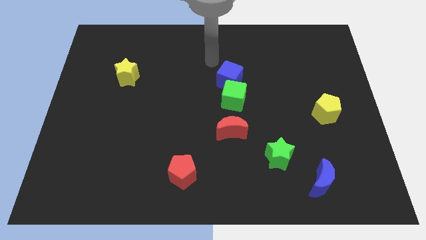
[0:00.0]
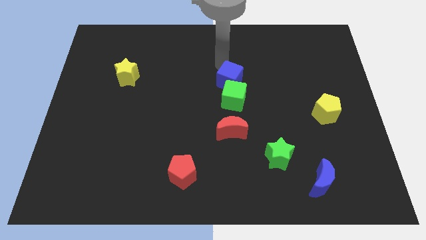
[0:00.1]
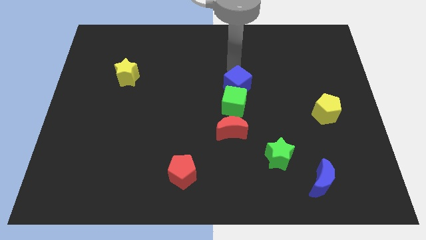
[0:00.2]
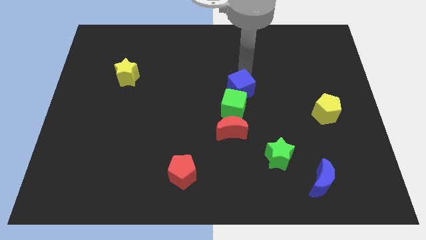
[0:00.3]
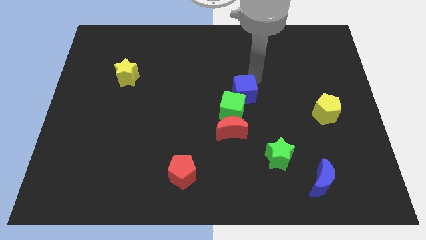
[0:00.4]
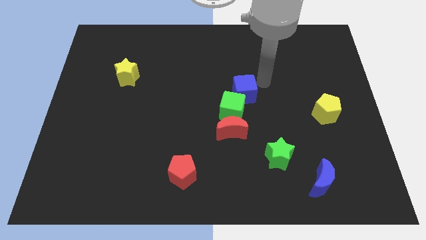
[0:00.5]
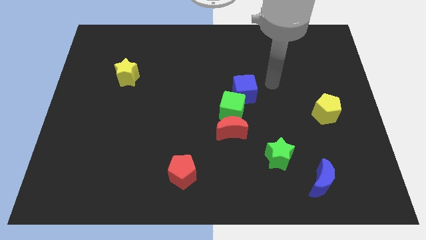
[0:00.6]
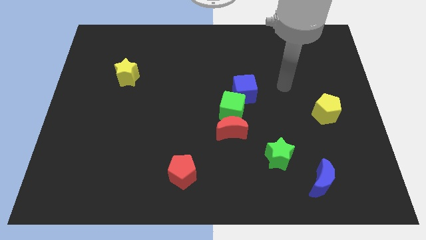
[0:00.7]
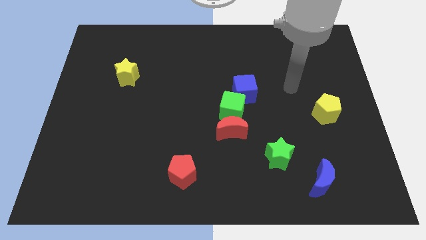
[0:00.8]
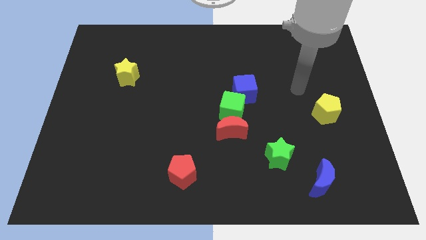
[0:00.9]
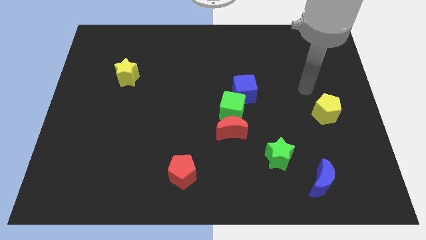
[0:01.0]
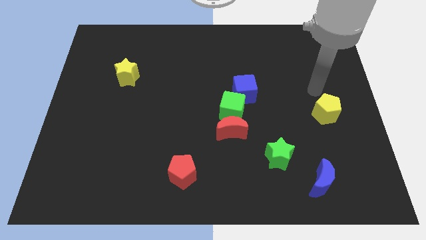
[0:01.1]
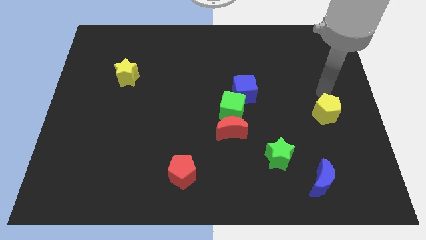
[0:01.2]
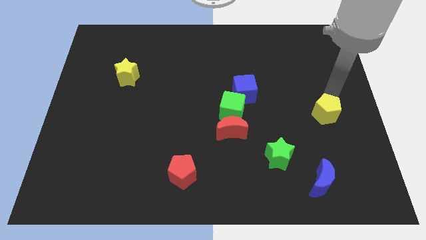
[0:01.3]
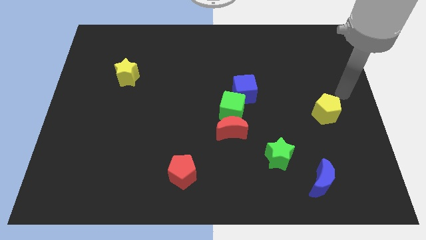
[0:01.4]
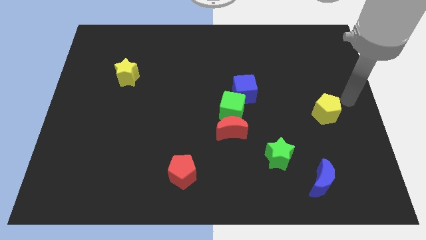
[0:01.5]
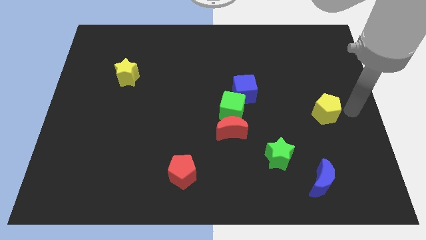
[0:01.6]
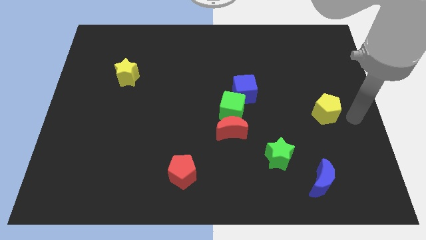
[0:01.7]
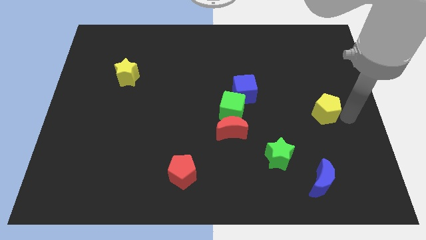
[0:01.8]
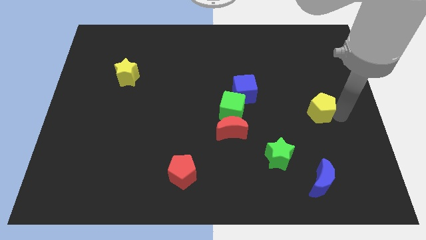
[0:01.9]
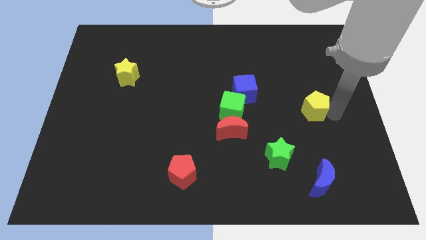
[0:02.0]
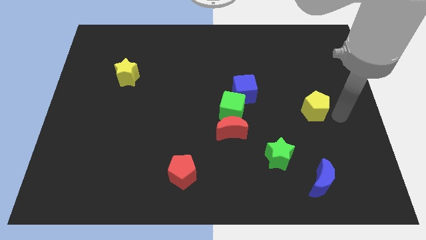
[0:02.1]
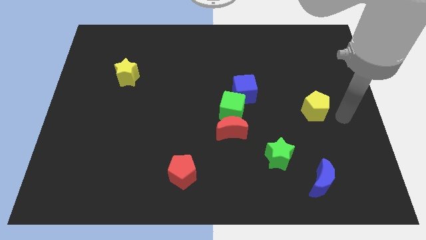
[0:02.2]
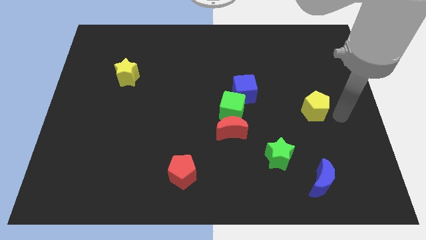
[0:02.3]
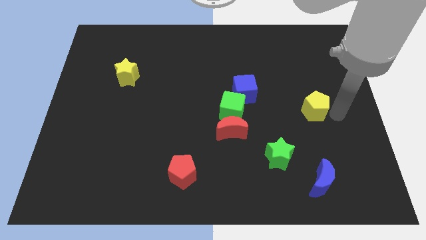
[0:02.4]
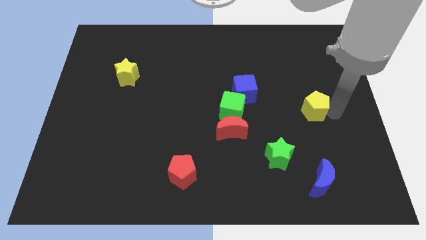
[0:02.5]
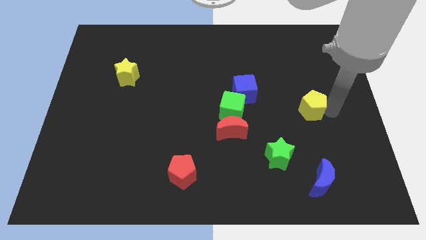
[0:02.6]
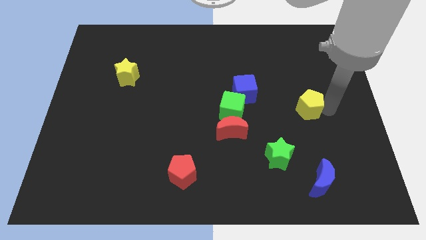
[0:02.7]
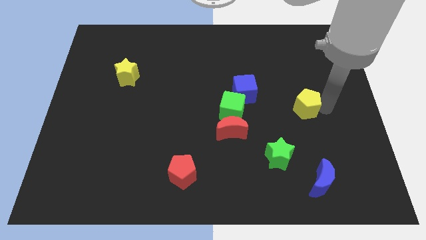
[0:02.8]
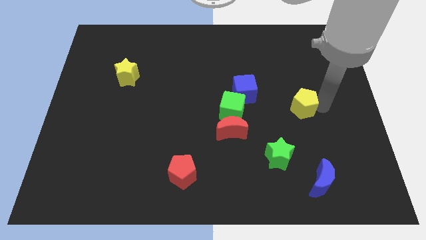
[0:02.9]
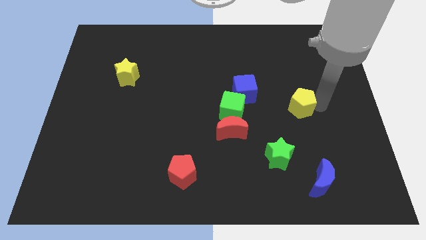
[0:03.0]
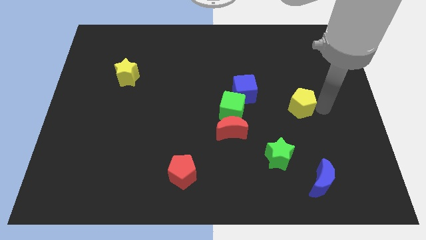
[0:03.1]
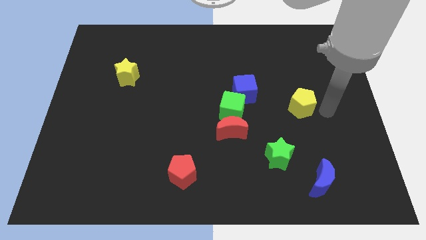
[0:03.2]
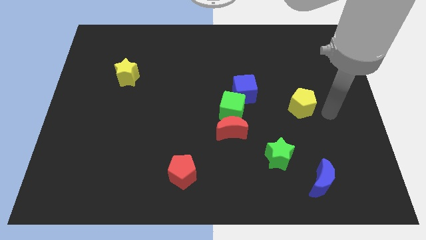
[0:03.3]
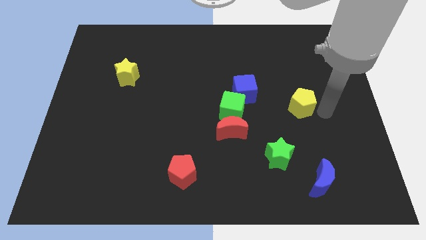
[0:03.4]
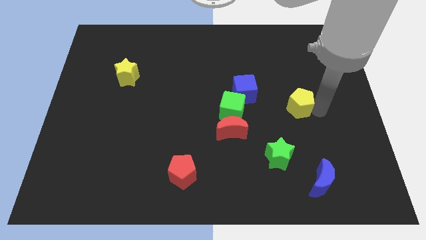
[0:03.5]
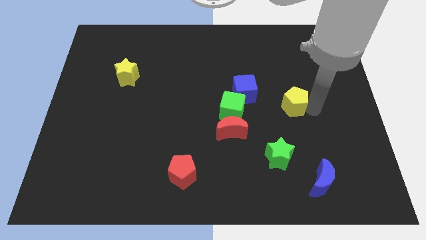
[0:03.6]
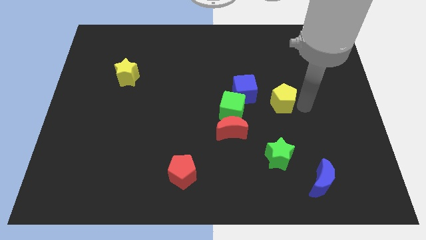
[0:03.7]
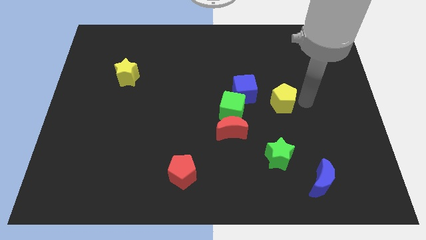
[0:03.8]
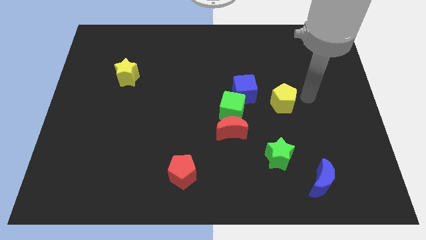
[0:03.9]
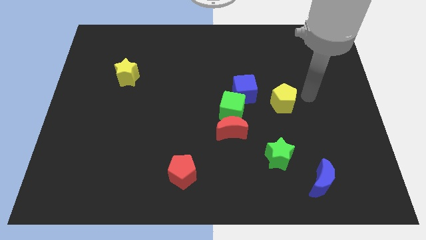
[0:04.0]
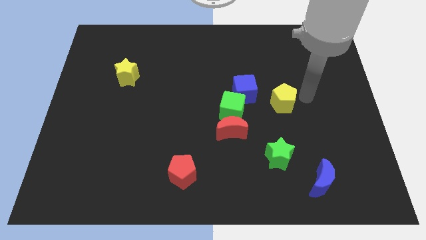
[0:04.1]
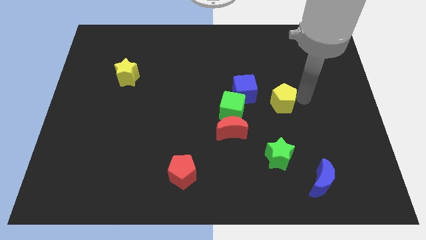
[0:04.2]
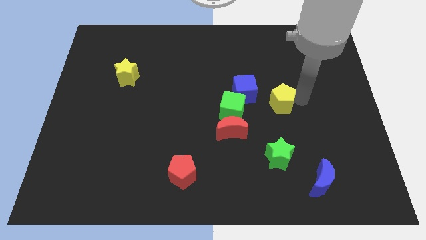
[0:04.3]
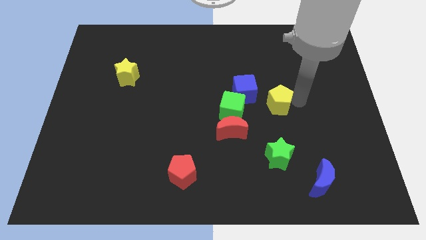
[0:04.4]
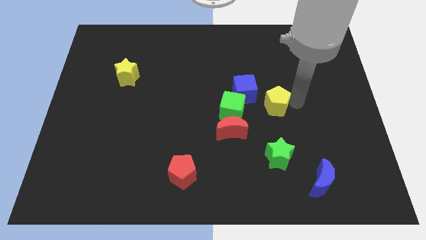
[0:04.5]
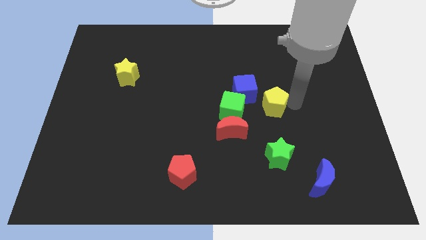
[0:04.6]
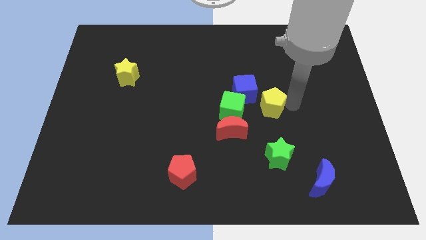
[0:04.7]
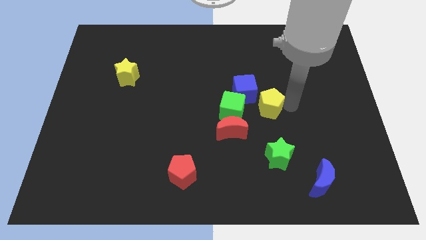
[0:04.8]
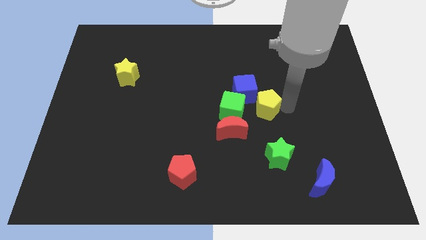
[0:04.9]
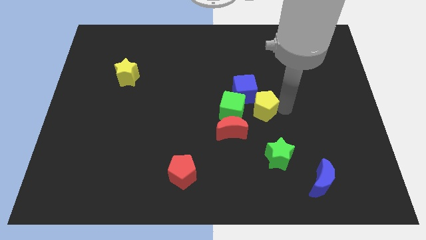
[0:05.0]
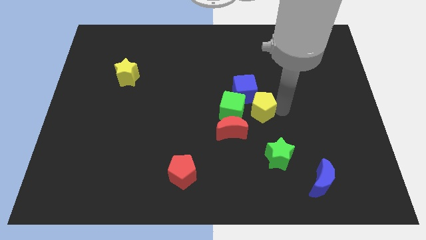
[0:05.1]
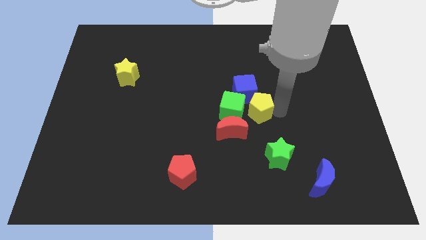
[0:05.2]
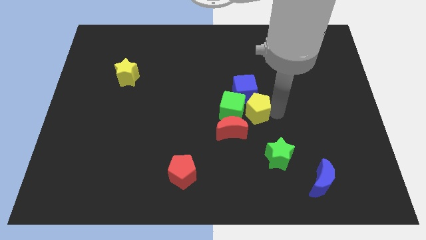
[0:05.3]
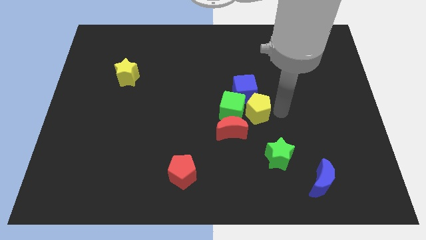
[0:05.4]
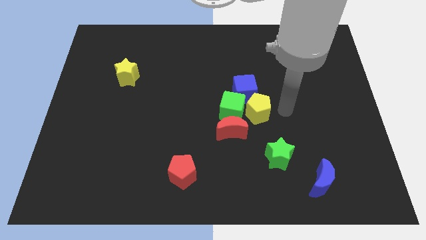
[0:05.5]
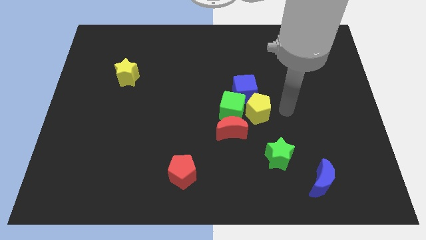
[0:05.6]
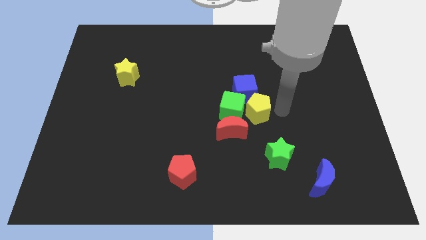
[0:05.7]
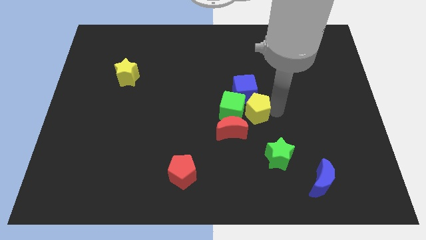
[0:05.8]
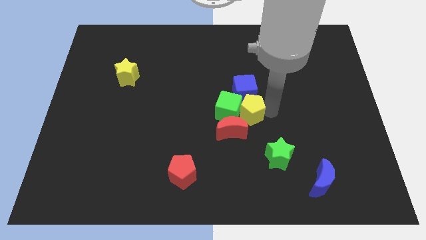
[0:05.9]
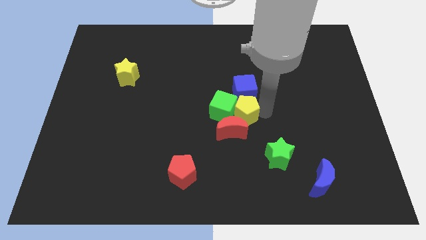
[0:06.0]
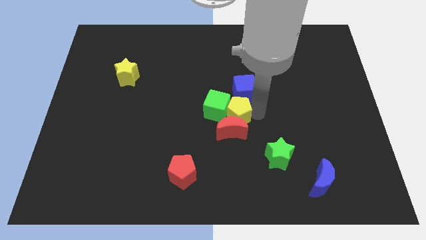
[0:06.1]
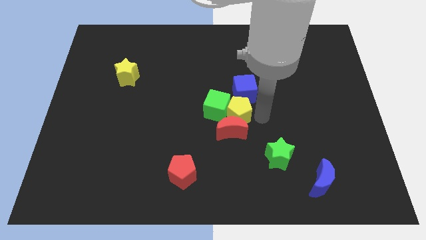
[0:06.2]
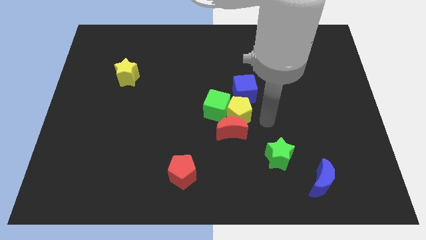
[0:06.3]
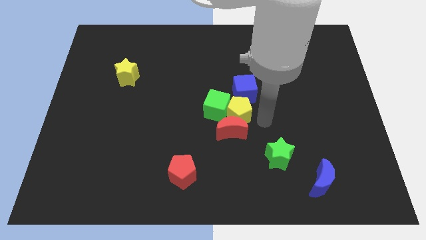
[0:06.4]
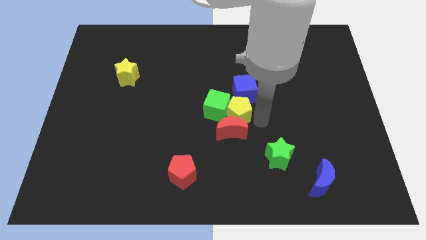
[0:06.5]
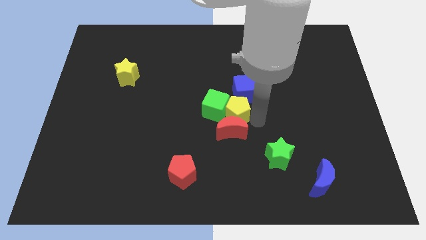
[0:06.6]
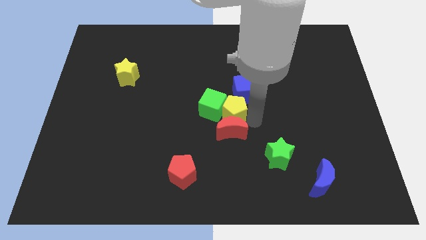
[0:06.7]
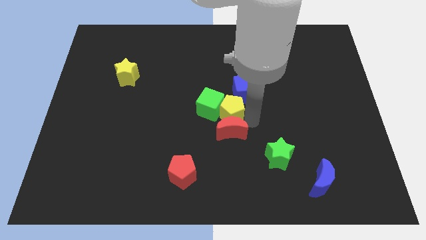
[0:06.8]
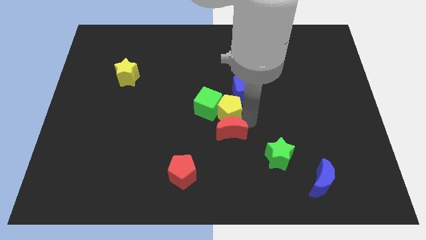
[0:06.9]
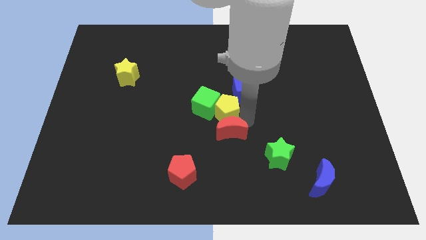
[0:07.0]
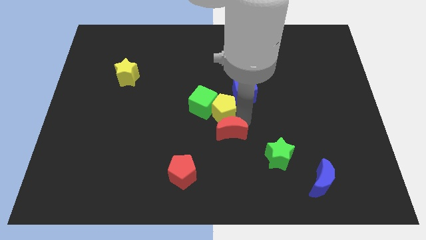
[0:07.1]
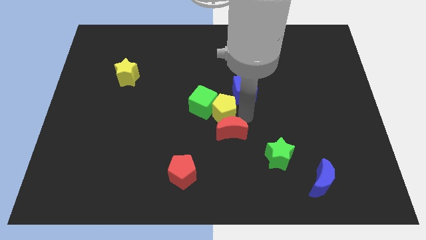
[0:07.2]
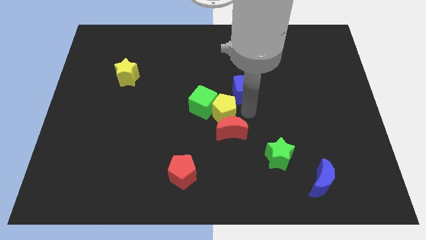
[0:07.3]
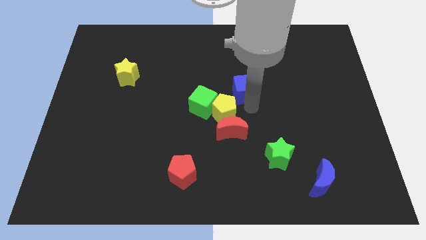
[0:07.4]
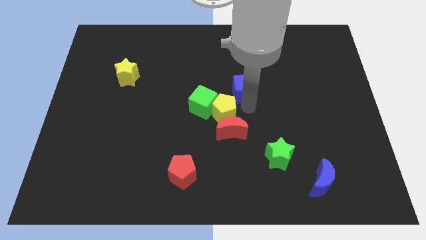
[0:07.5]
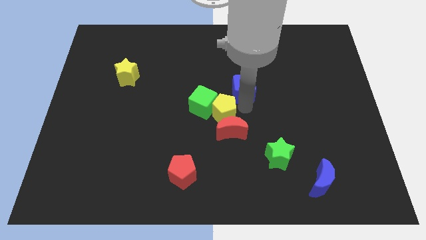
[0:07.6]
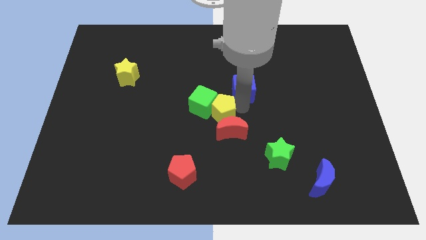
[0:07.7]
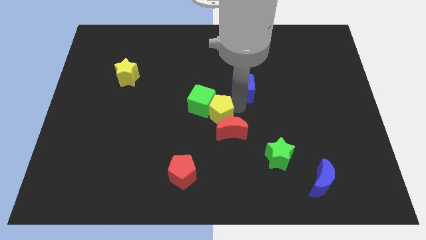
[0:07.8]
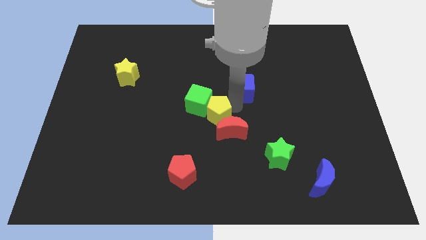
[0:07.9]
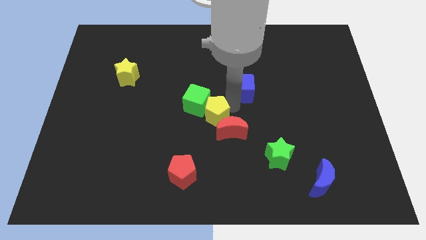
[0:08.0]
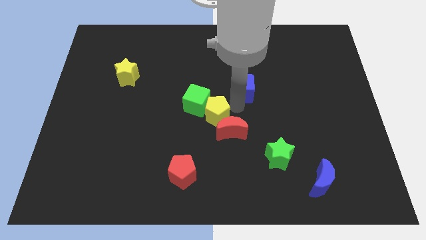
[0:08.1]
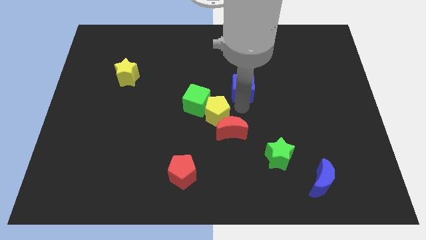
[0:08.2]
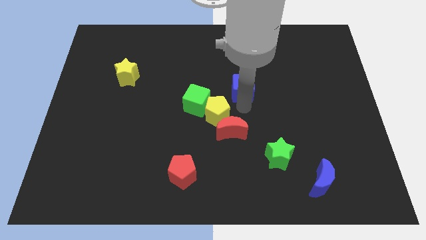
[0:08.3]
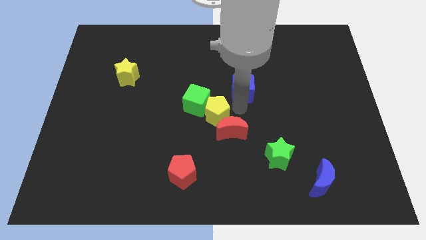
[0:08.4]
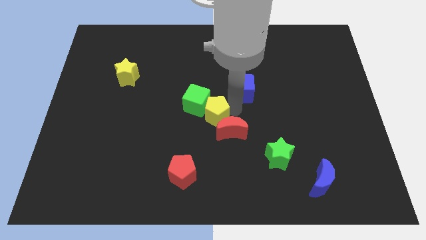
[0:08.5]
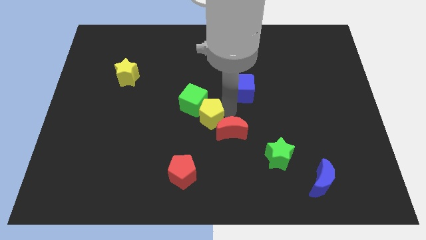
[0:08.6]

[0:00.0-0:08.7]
put the yellow pentagon left of the red moon
